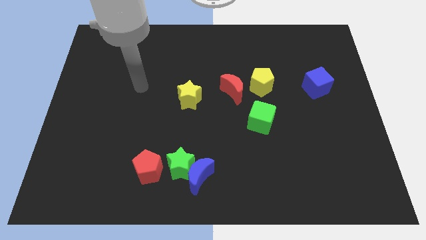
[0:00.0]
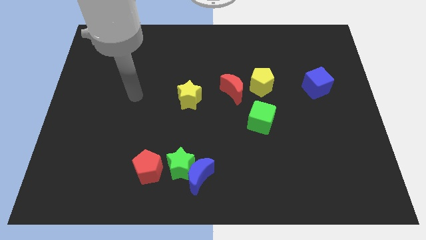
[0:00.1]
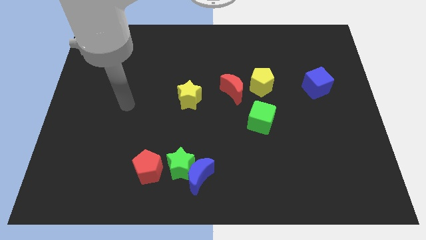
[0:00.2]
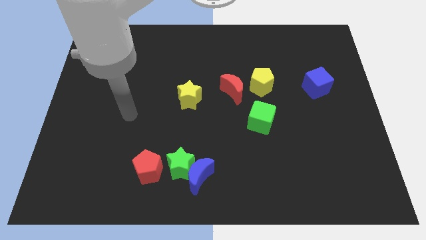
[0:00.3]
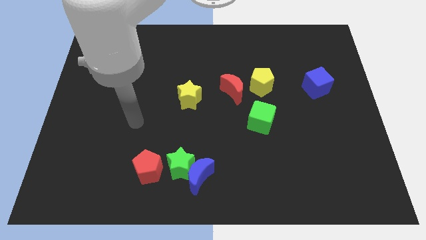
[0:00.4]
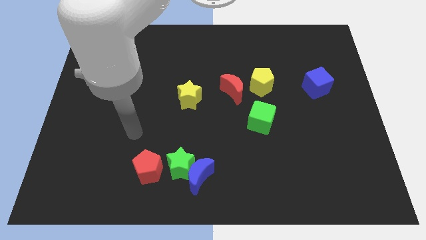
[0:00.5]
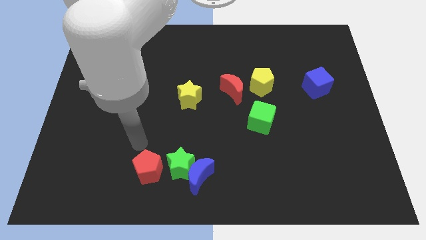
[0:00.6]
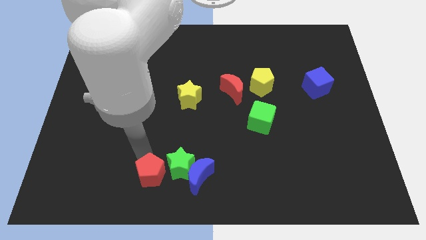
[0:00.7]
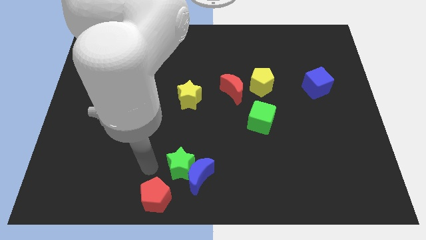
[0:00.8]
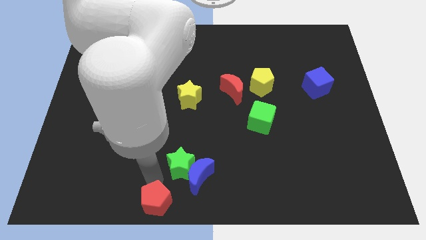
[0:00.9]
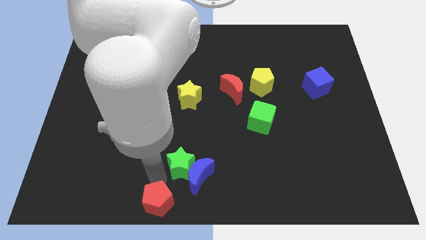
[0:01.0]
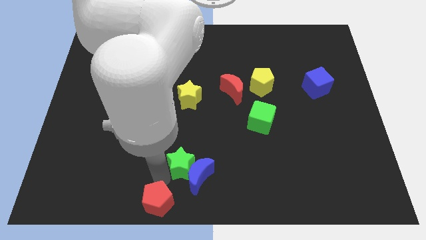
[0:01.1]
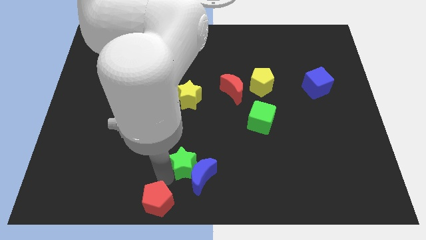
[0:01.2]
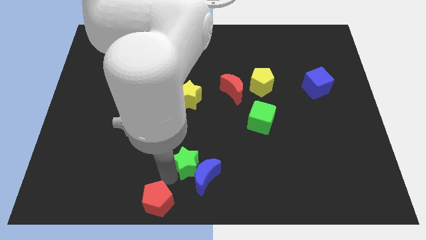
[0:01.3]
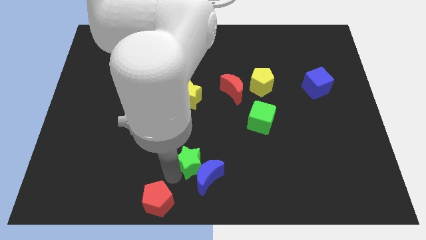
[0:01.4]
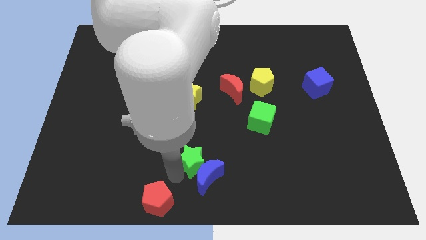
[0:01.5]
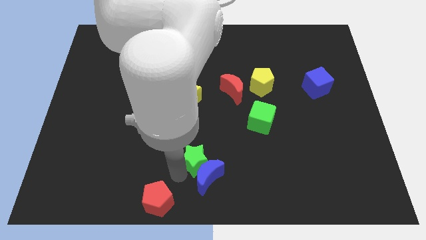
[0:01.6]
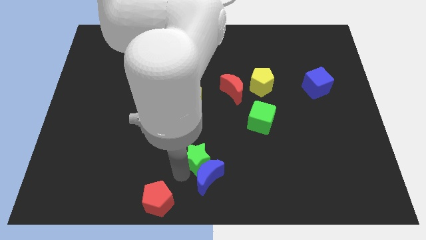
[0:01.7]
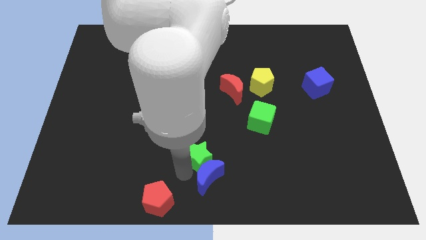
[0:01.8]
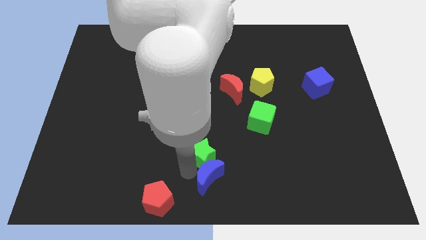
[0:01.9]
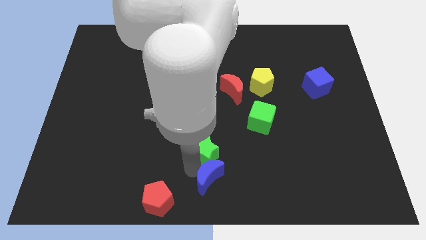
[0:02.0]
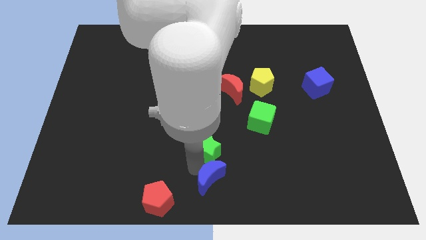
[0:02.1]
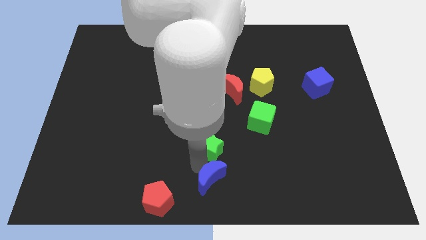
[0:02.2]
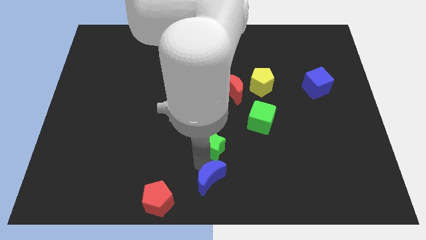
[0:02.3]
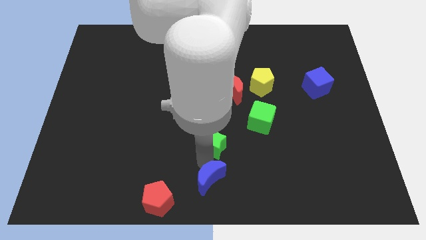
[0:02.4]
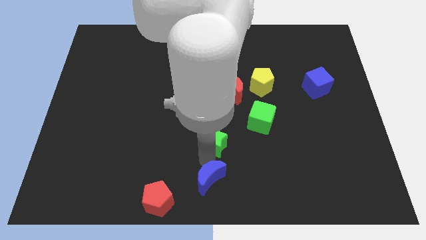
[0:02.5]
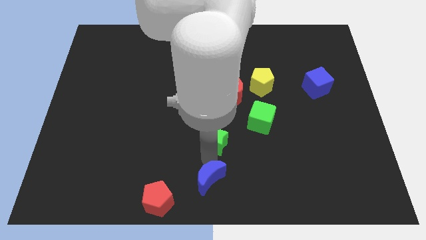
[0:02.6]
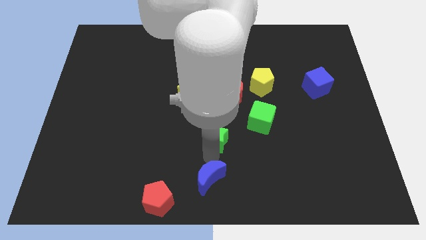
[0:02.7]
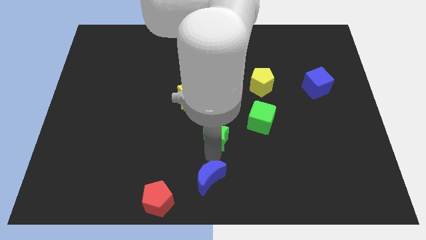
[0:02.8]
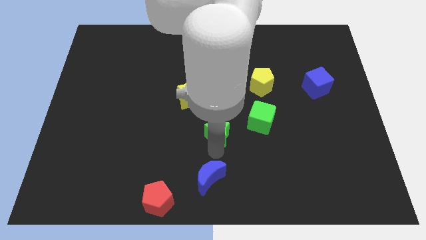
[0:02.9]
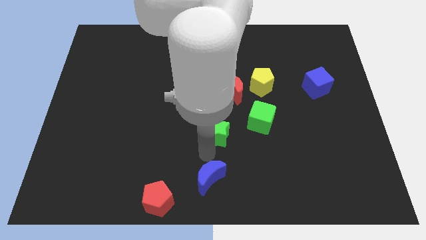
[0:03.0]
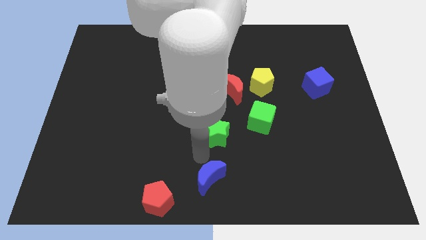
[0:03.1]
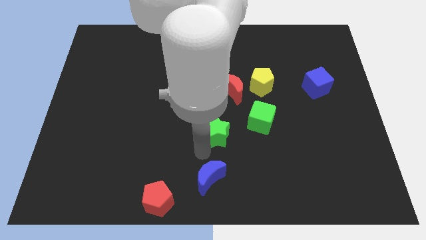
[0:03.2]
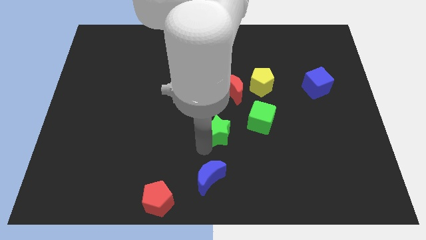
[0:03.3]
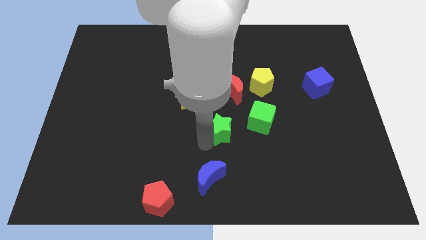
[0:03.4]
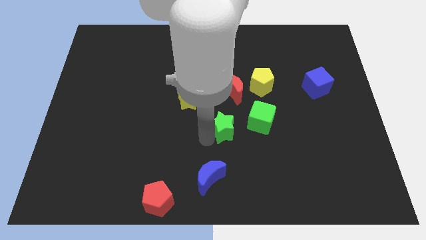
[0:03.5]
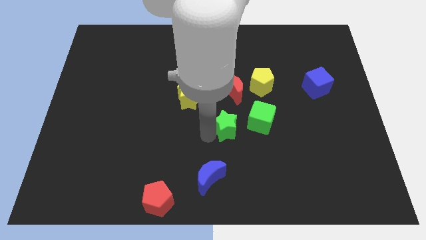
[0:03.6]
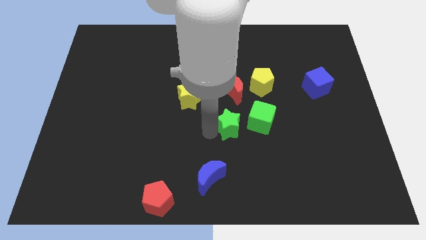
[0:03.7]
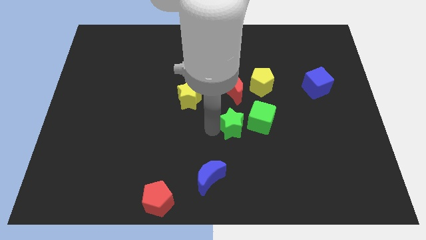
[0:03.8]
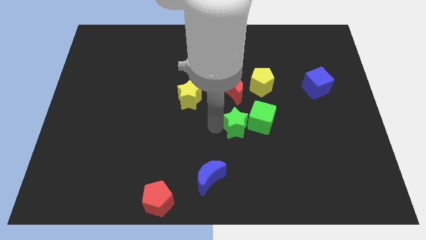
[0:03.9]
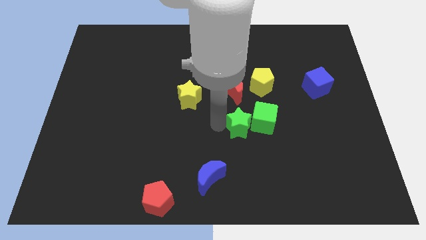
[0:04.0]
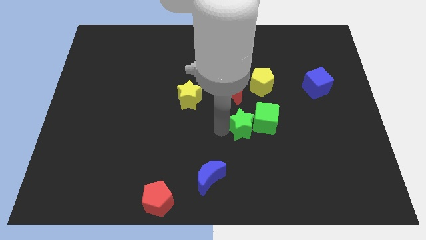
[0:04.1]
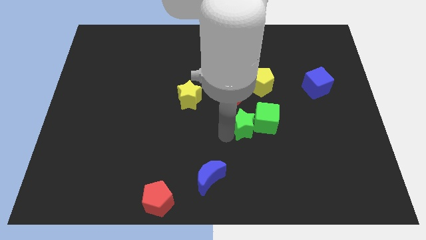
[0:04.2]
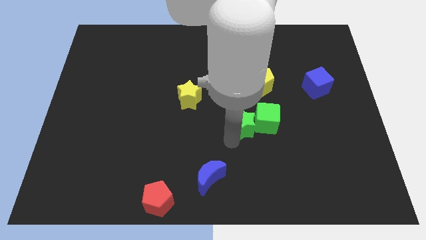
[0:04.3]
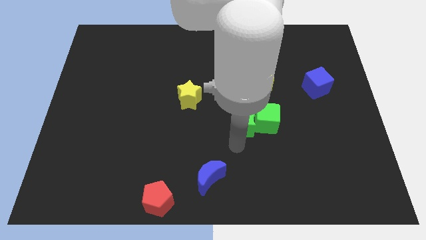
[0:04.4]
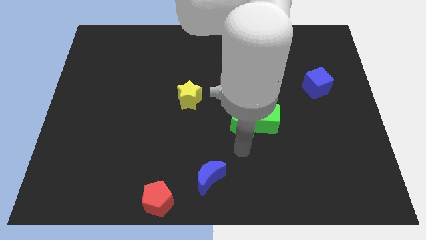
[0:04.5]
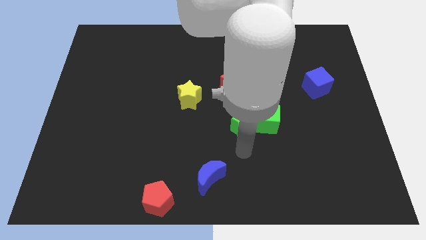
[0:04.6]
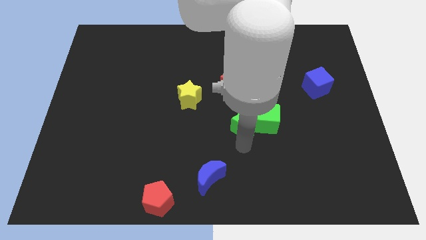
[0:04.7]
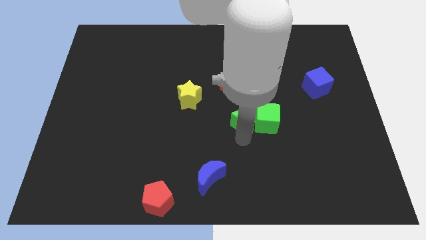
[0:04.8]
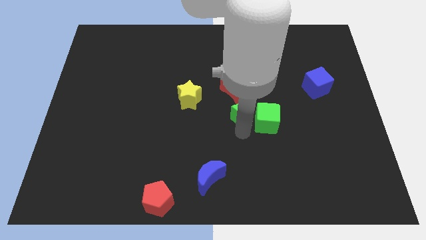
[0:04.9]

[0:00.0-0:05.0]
move the green star to the bottom left side of the yellow pentagon
